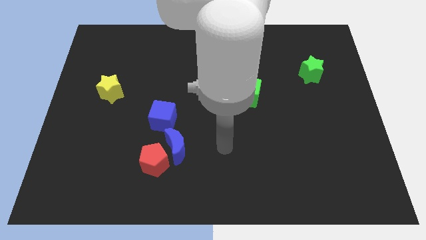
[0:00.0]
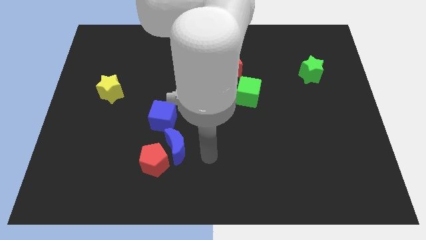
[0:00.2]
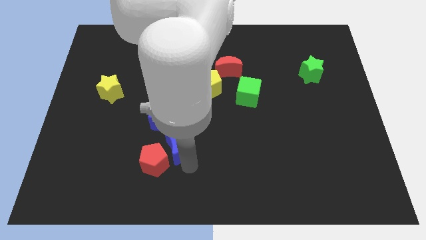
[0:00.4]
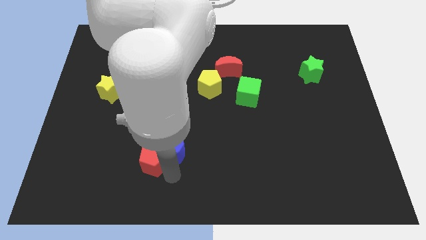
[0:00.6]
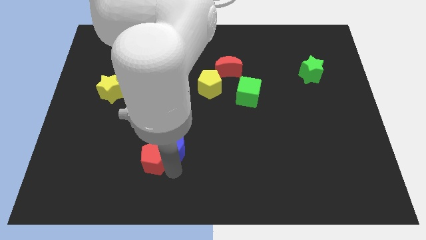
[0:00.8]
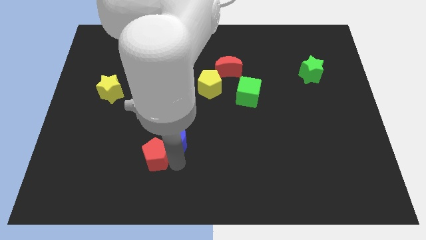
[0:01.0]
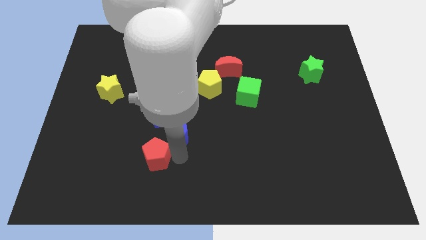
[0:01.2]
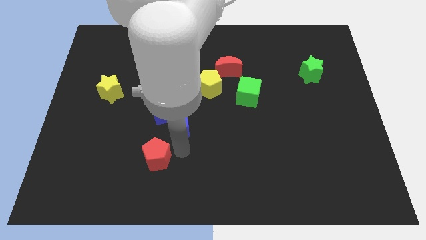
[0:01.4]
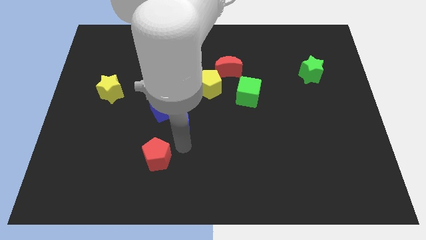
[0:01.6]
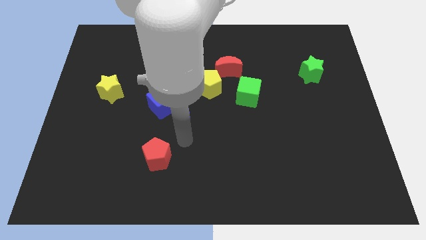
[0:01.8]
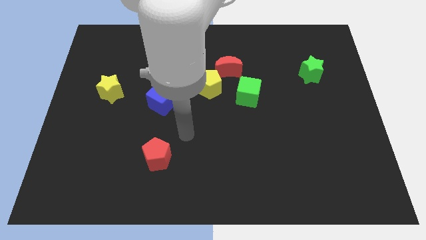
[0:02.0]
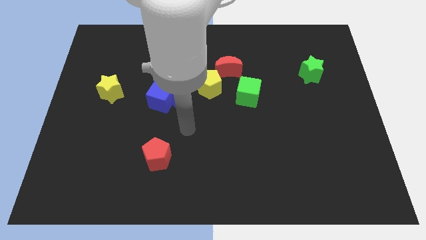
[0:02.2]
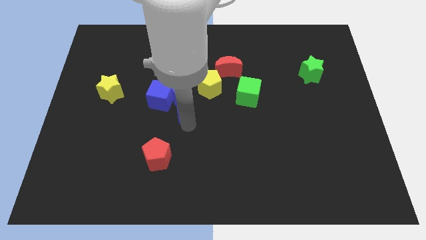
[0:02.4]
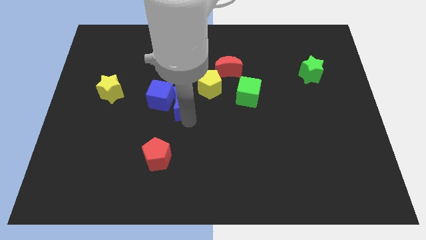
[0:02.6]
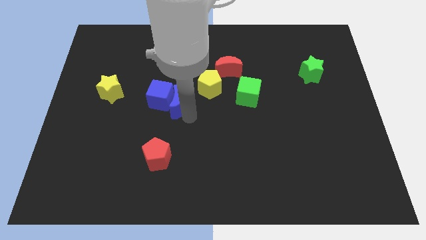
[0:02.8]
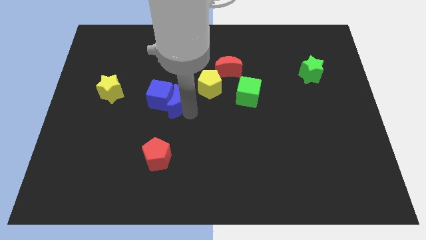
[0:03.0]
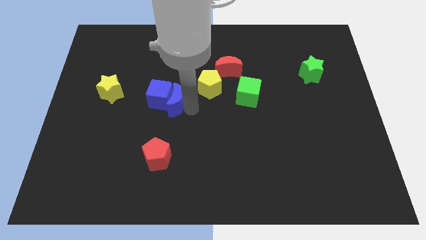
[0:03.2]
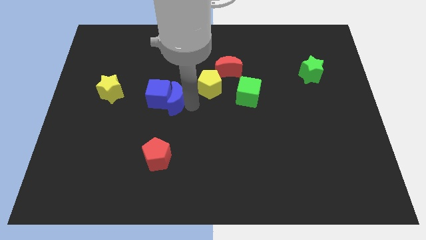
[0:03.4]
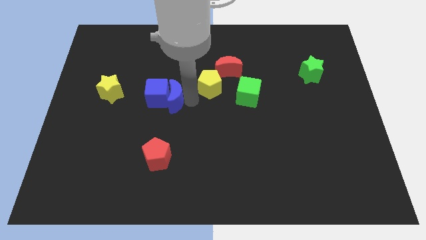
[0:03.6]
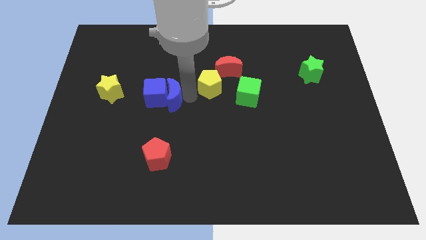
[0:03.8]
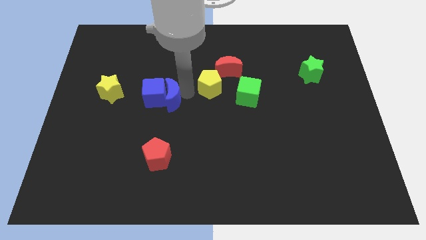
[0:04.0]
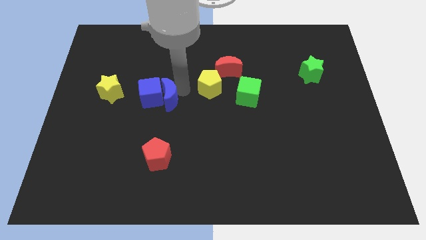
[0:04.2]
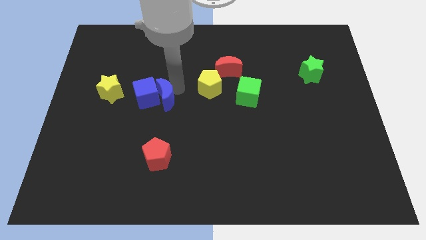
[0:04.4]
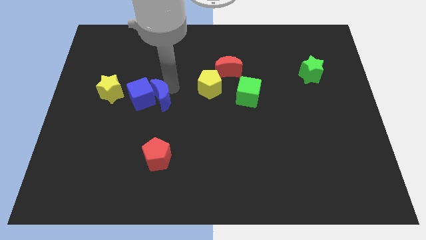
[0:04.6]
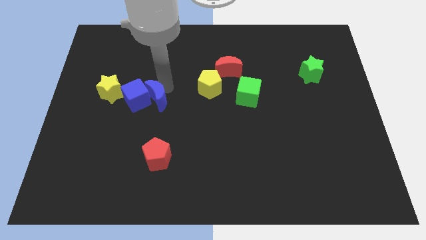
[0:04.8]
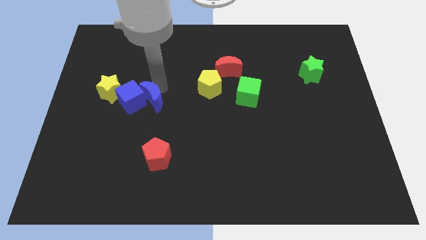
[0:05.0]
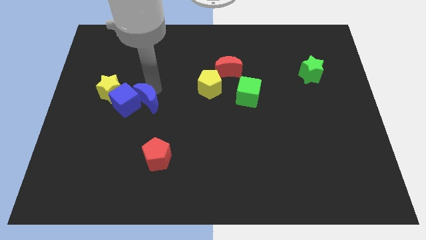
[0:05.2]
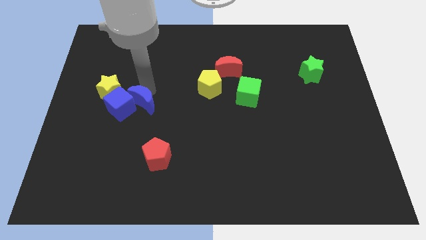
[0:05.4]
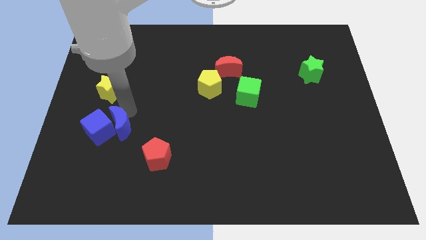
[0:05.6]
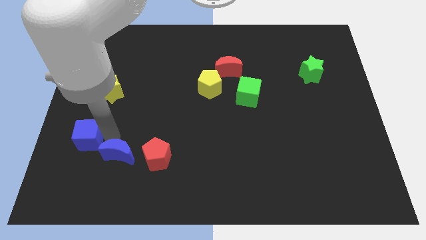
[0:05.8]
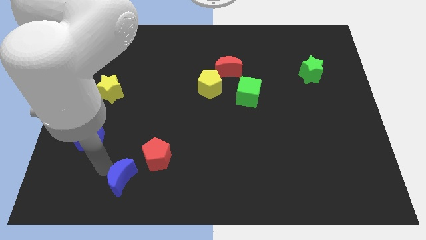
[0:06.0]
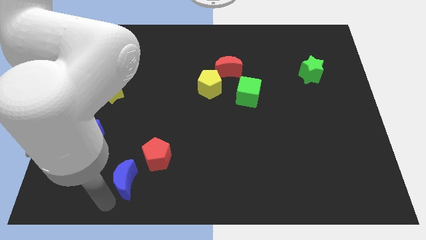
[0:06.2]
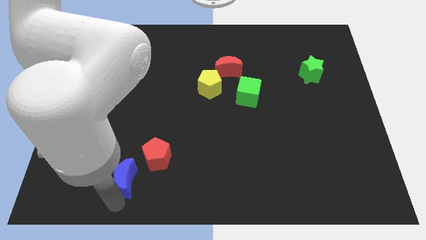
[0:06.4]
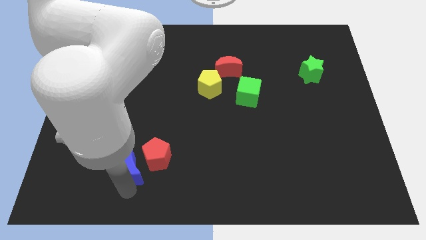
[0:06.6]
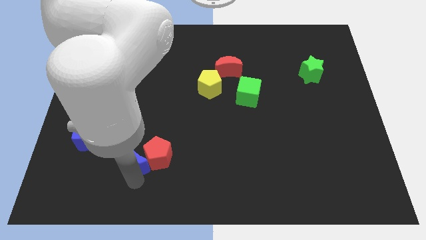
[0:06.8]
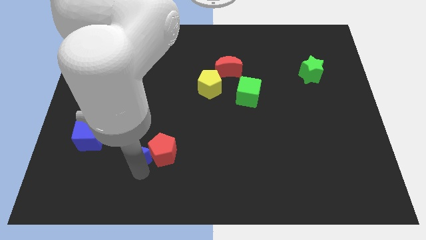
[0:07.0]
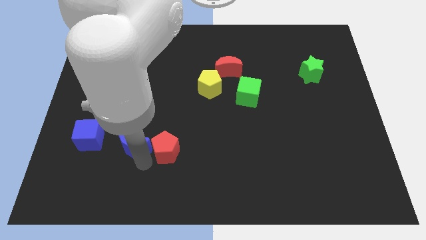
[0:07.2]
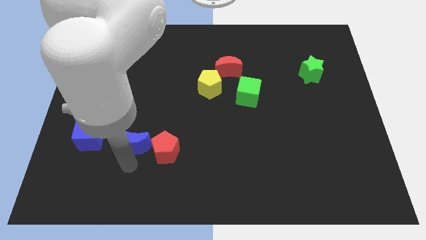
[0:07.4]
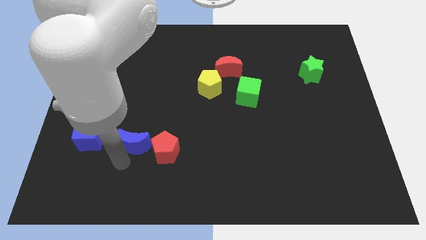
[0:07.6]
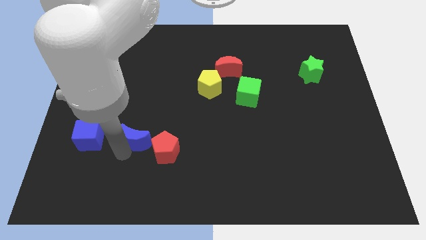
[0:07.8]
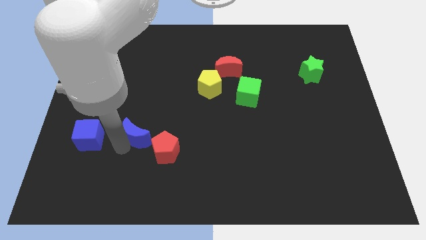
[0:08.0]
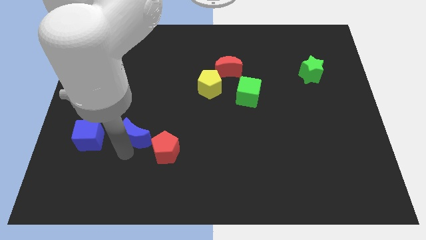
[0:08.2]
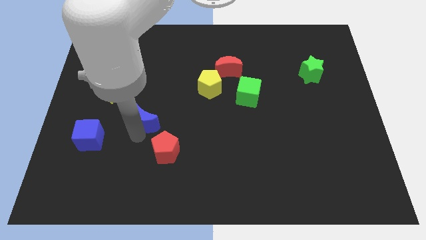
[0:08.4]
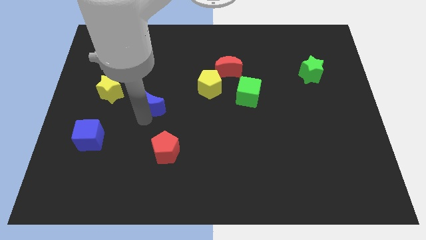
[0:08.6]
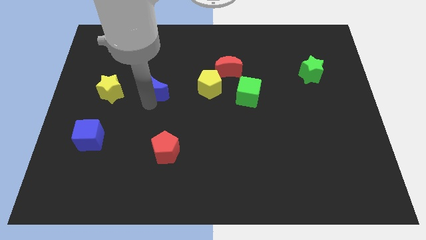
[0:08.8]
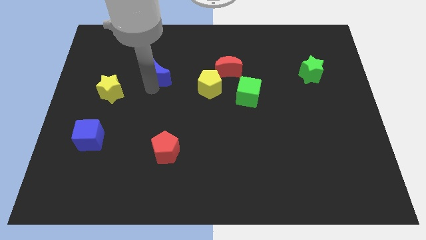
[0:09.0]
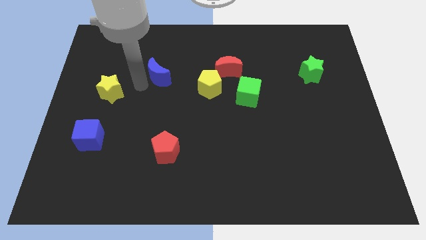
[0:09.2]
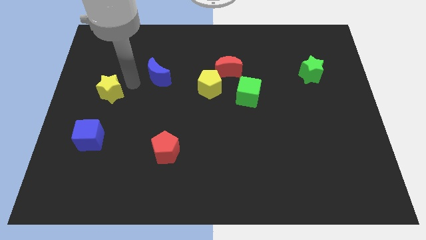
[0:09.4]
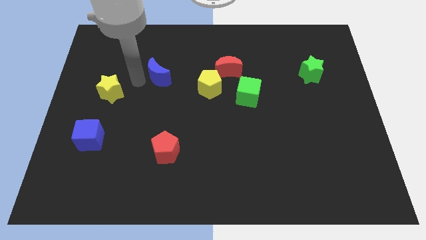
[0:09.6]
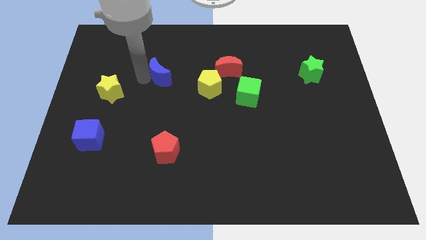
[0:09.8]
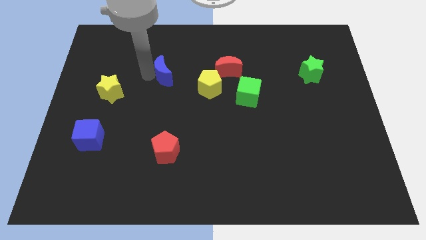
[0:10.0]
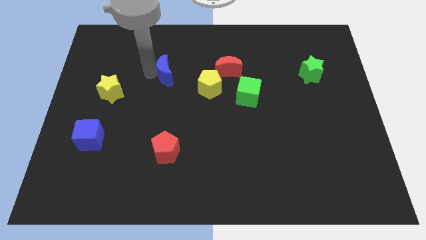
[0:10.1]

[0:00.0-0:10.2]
put the blue moon just left of the red moon

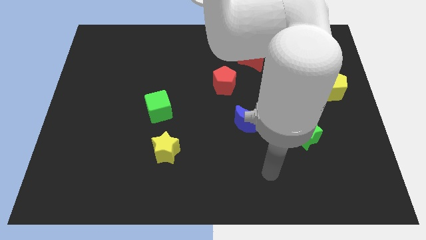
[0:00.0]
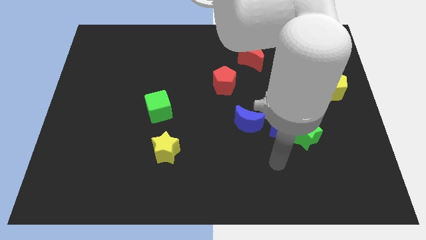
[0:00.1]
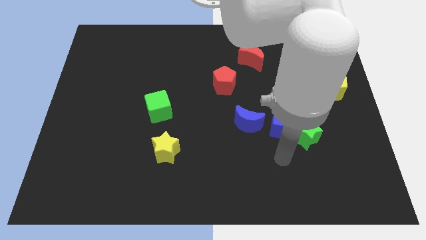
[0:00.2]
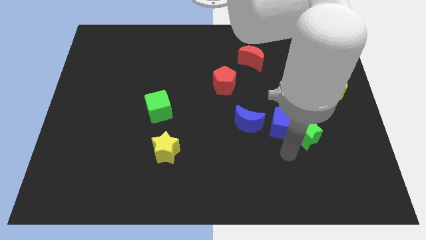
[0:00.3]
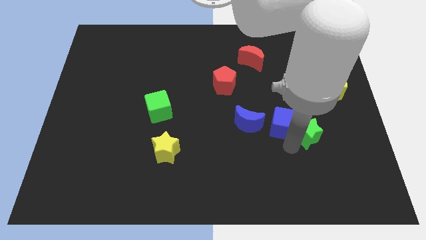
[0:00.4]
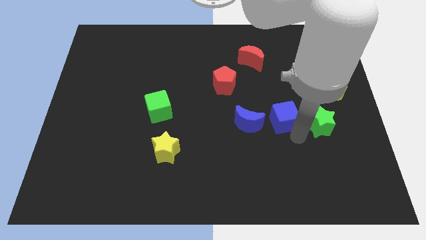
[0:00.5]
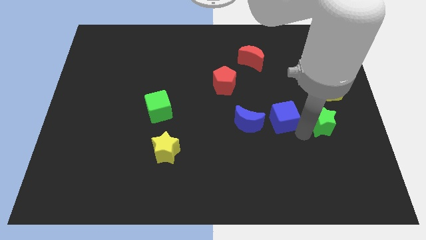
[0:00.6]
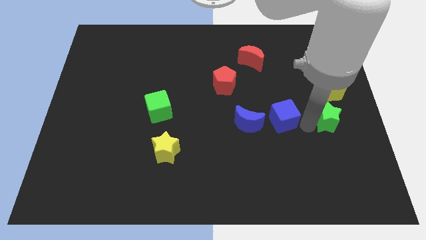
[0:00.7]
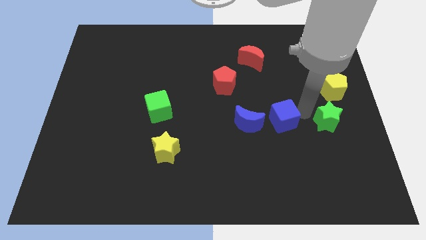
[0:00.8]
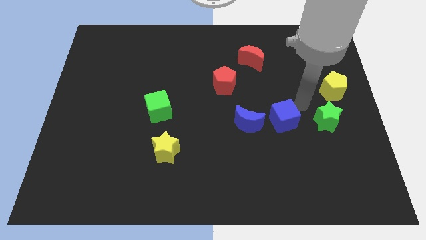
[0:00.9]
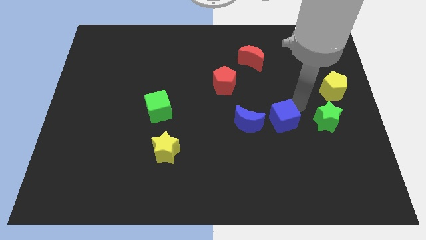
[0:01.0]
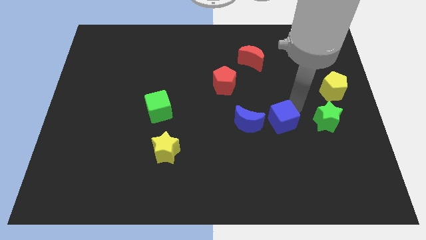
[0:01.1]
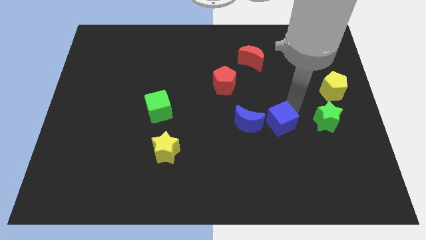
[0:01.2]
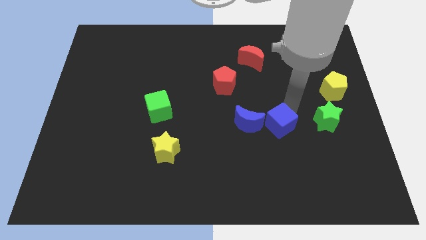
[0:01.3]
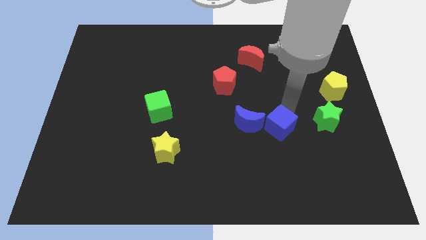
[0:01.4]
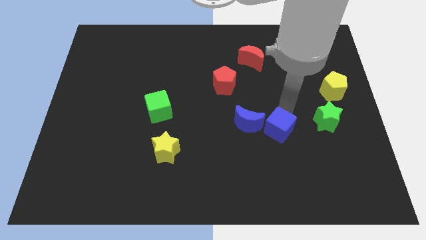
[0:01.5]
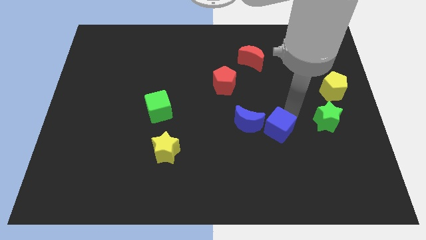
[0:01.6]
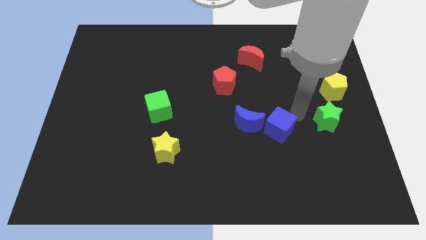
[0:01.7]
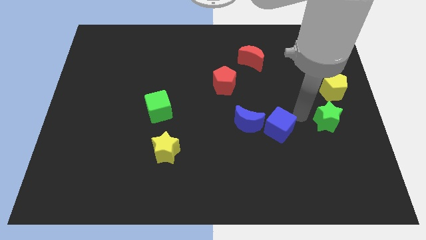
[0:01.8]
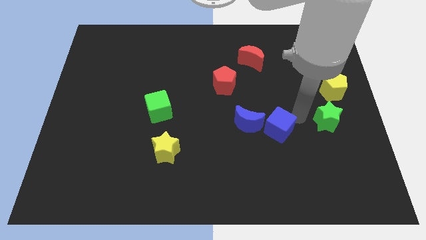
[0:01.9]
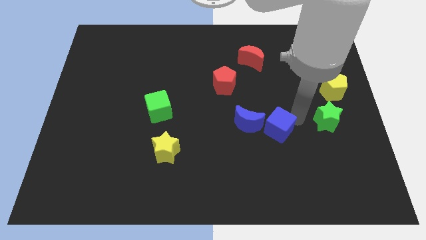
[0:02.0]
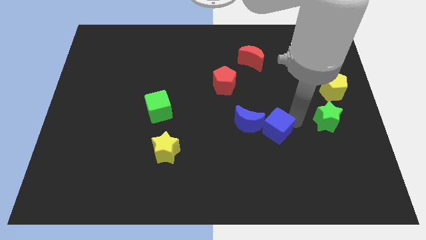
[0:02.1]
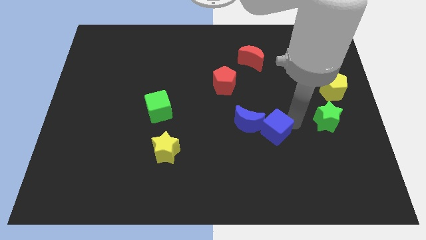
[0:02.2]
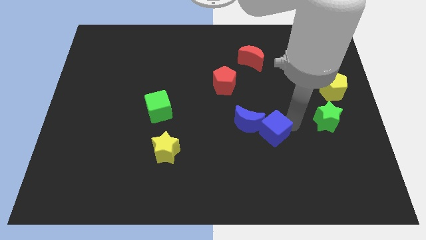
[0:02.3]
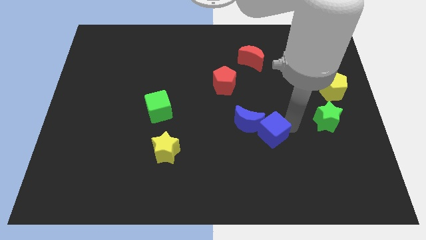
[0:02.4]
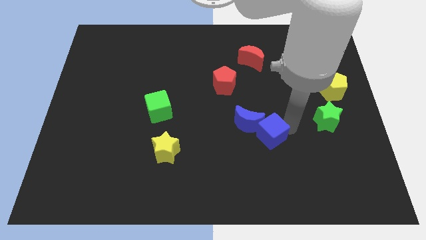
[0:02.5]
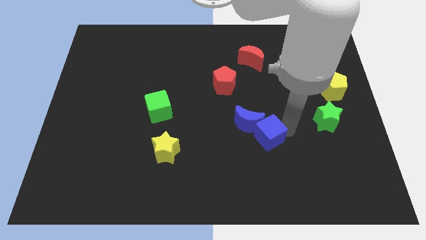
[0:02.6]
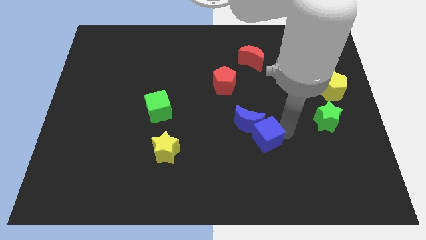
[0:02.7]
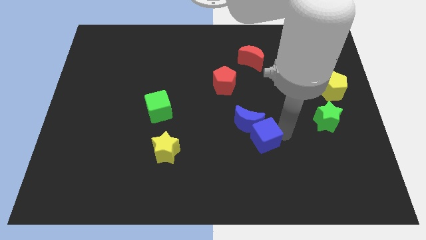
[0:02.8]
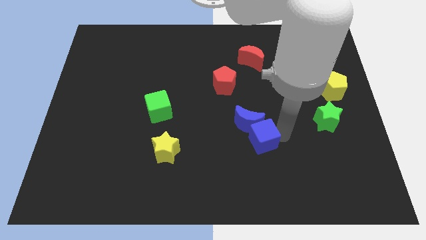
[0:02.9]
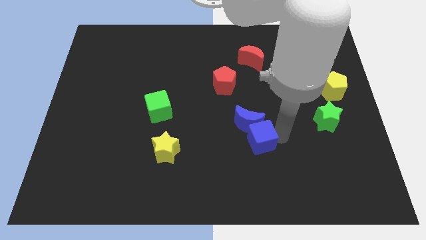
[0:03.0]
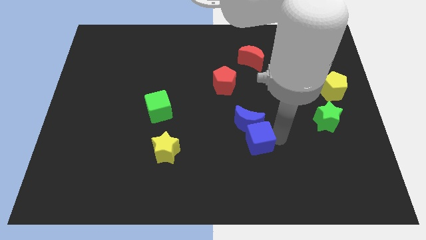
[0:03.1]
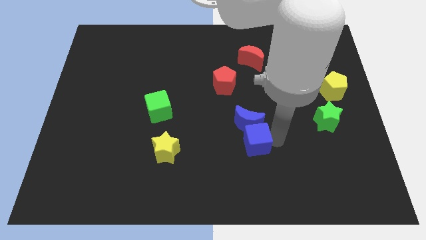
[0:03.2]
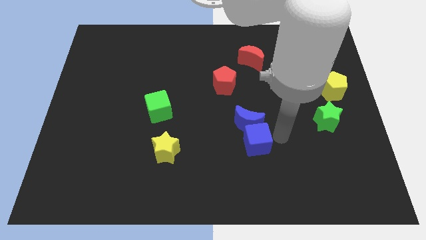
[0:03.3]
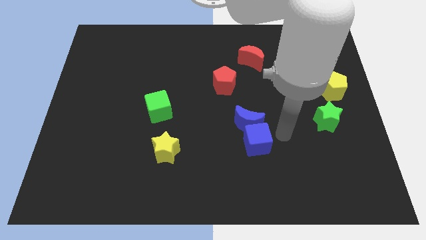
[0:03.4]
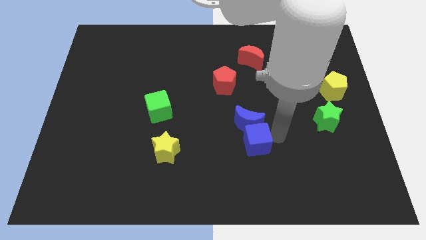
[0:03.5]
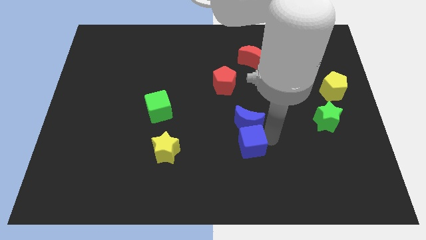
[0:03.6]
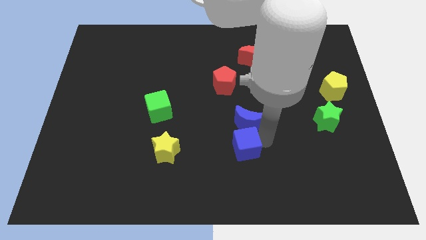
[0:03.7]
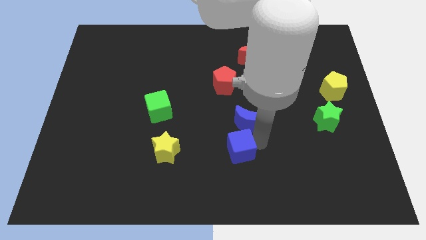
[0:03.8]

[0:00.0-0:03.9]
push the blue cube just right of the yellow star
